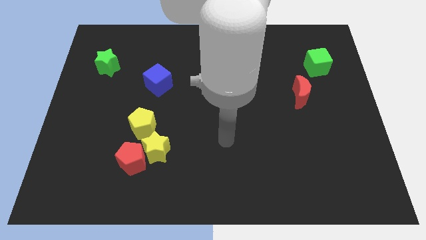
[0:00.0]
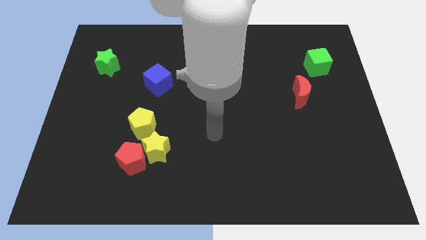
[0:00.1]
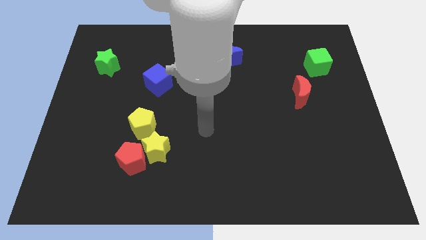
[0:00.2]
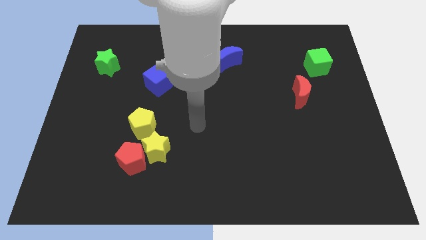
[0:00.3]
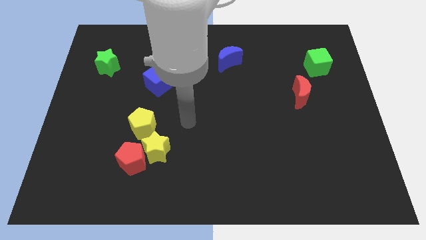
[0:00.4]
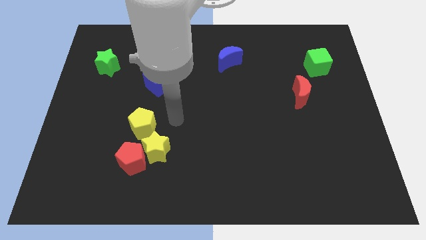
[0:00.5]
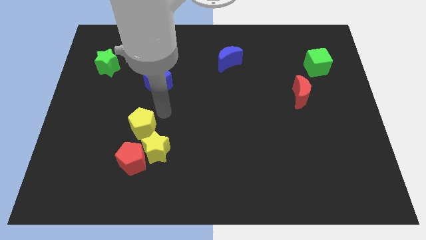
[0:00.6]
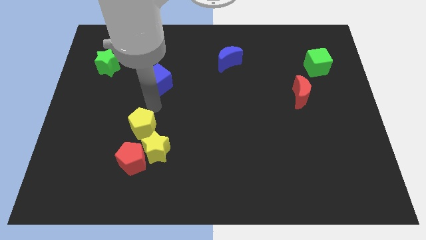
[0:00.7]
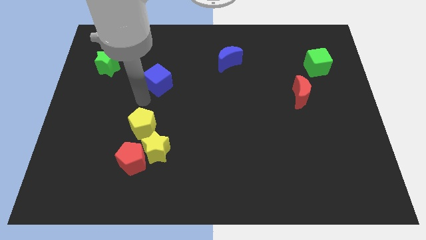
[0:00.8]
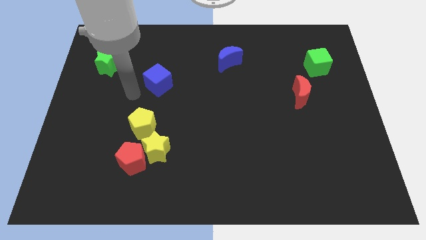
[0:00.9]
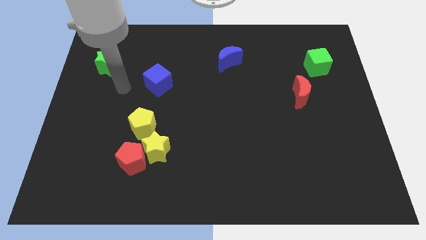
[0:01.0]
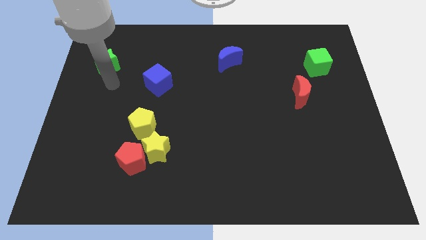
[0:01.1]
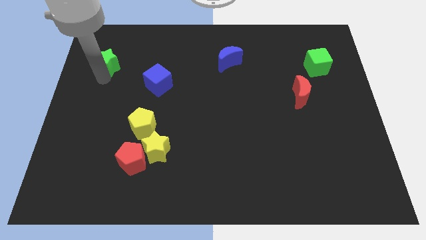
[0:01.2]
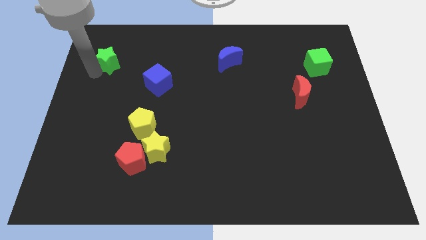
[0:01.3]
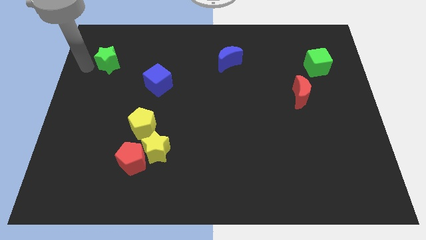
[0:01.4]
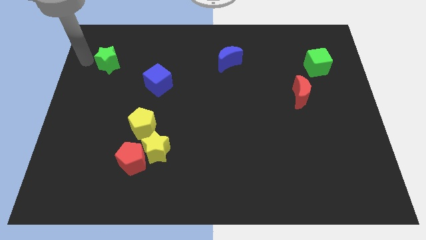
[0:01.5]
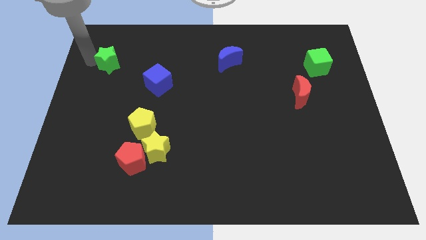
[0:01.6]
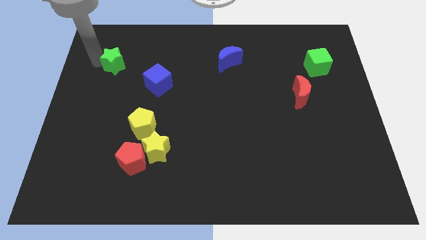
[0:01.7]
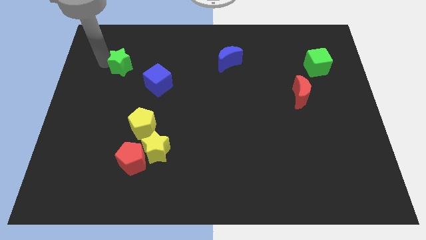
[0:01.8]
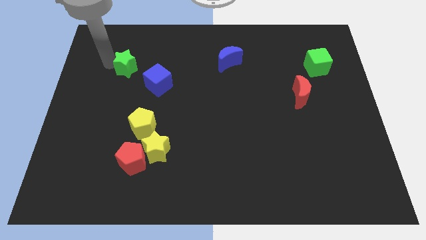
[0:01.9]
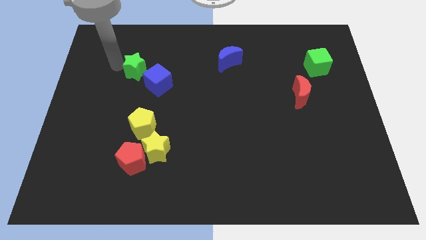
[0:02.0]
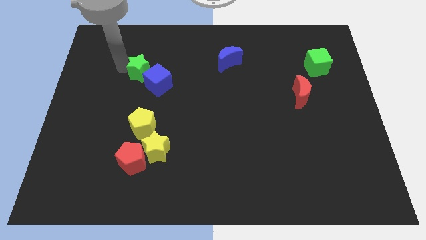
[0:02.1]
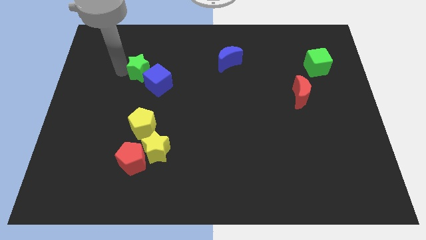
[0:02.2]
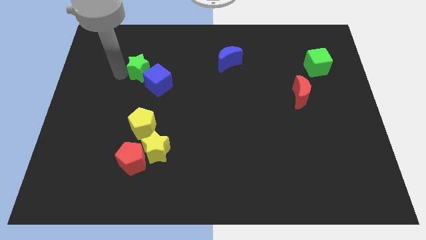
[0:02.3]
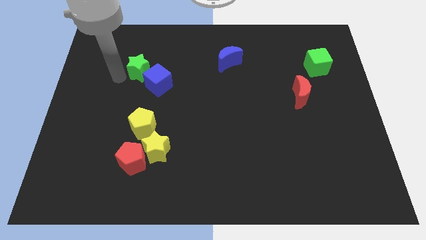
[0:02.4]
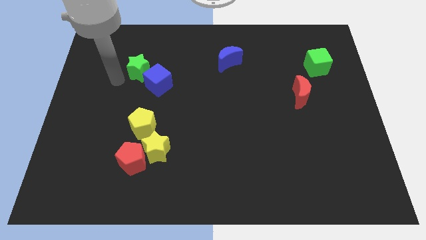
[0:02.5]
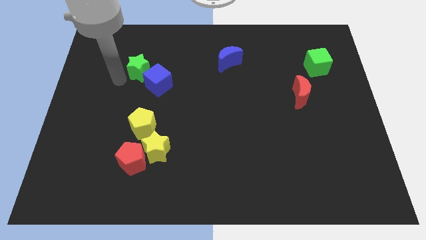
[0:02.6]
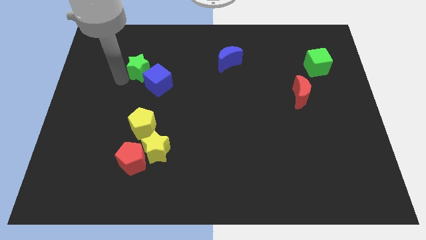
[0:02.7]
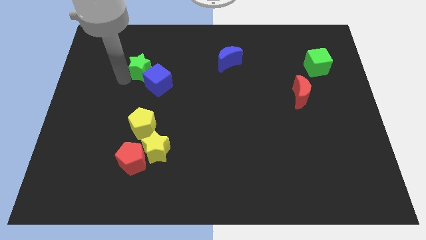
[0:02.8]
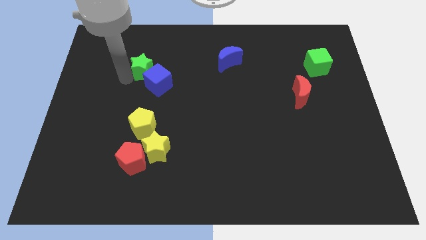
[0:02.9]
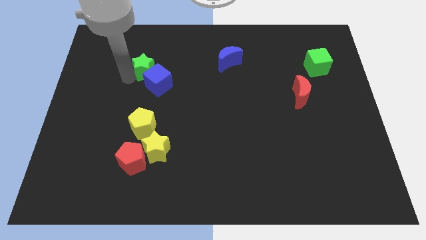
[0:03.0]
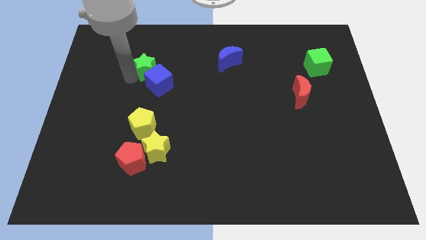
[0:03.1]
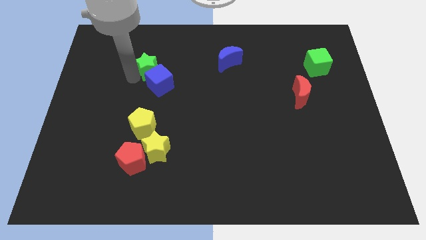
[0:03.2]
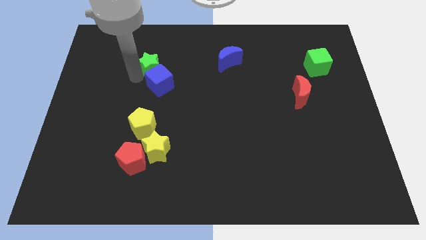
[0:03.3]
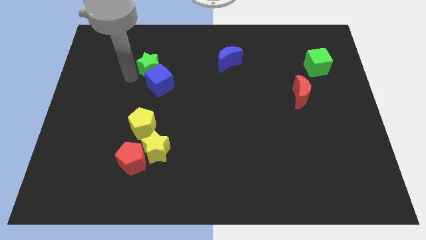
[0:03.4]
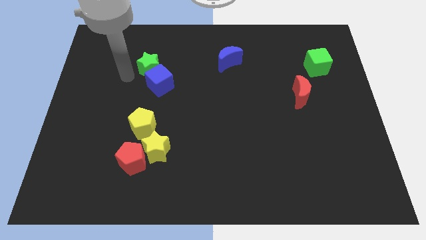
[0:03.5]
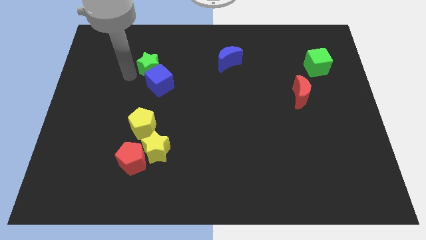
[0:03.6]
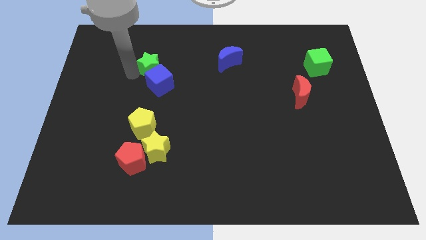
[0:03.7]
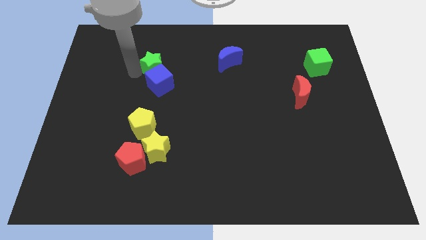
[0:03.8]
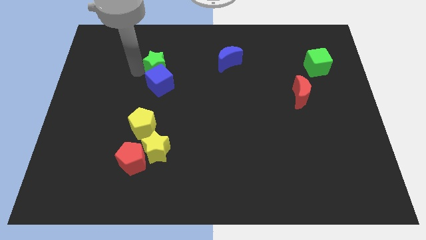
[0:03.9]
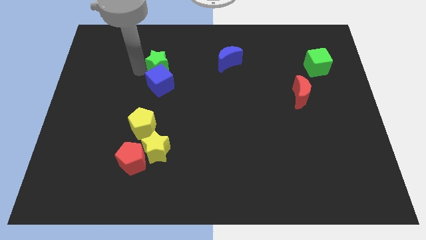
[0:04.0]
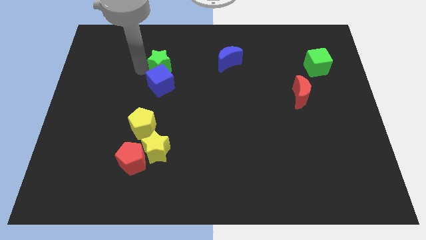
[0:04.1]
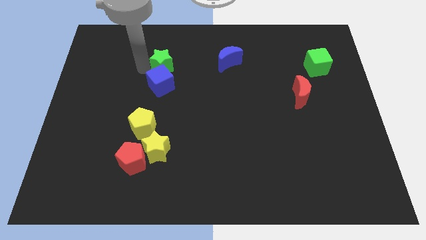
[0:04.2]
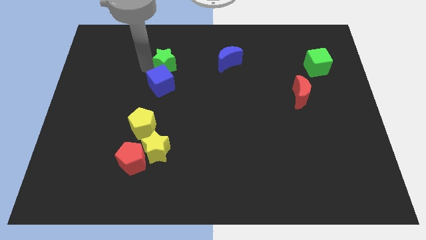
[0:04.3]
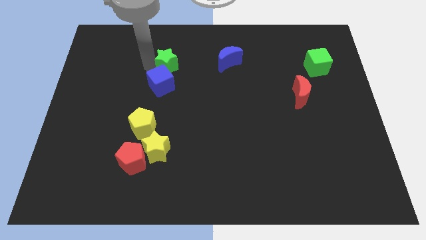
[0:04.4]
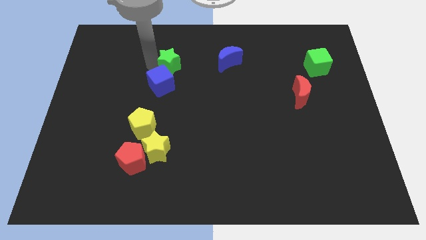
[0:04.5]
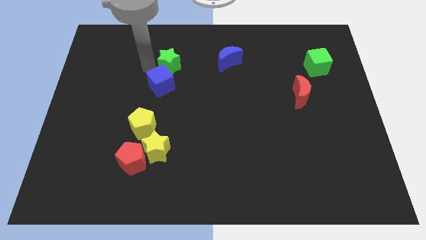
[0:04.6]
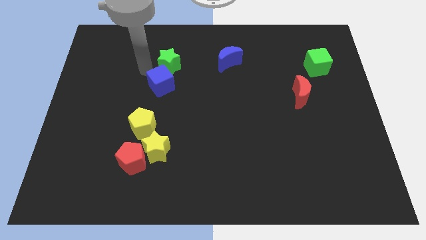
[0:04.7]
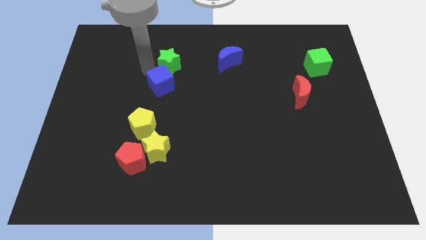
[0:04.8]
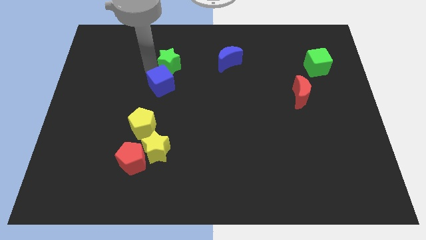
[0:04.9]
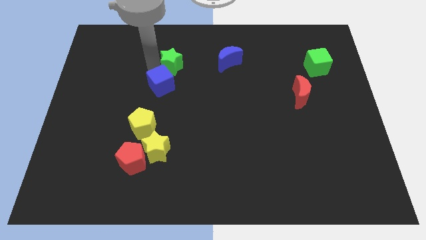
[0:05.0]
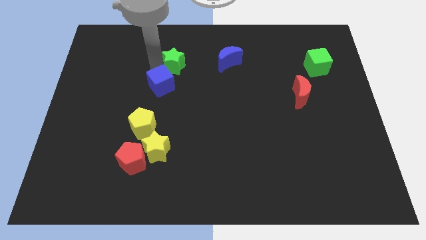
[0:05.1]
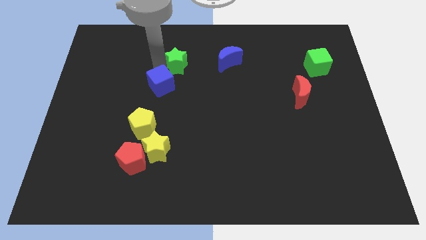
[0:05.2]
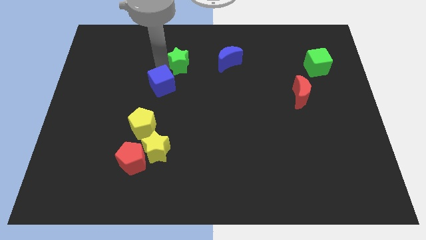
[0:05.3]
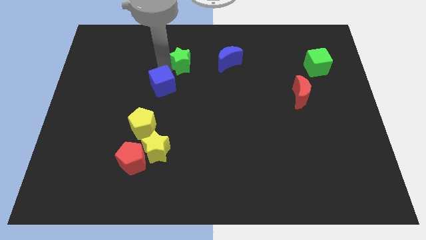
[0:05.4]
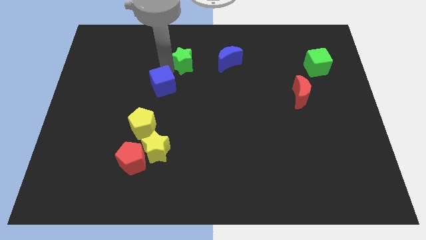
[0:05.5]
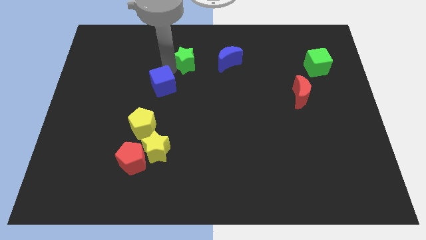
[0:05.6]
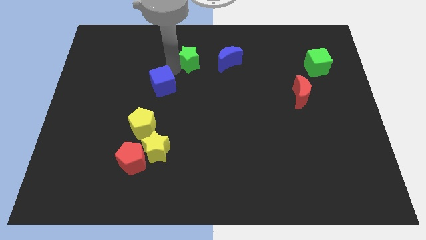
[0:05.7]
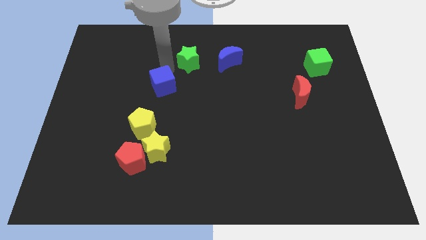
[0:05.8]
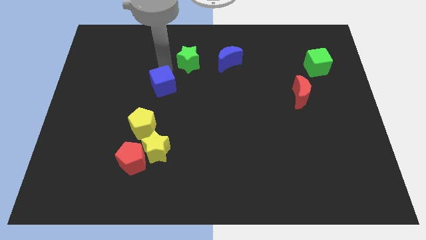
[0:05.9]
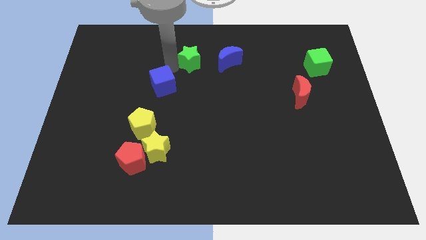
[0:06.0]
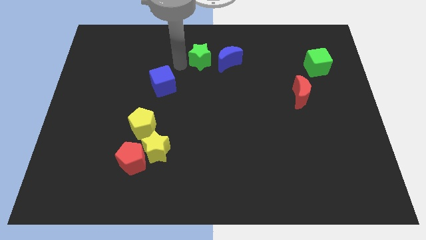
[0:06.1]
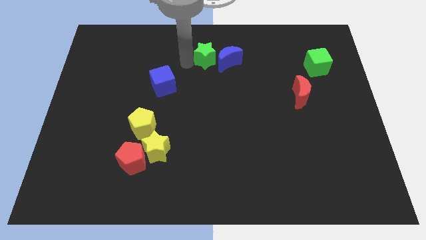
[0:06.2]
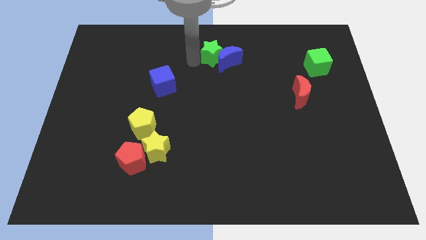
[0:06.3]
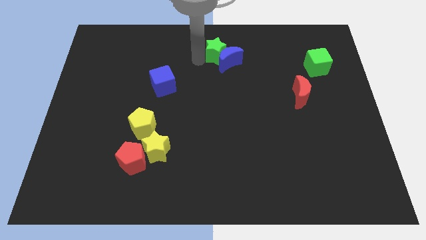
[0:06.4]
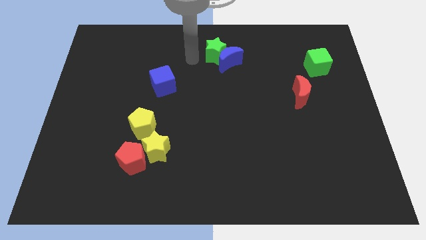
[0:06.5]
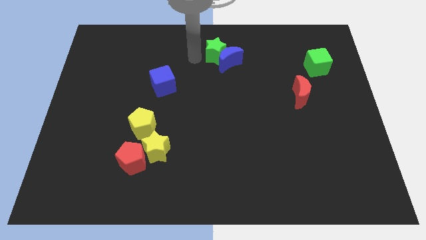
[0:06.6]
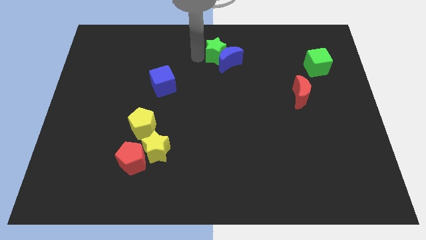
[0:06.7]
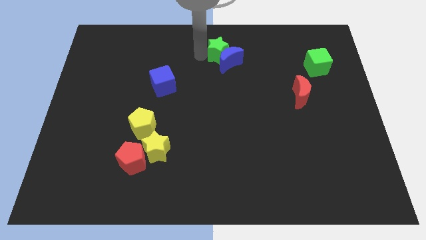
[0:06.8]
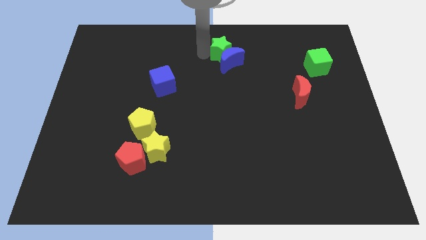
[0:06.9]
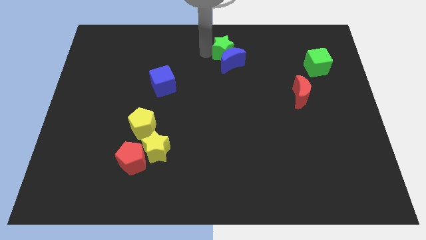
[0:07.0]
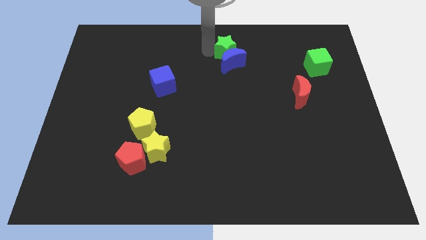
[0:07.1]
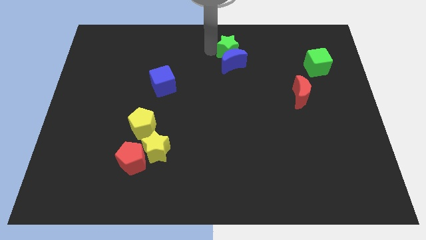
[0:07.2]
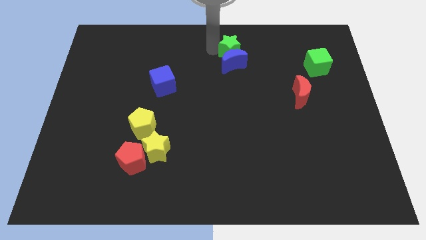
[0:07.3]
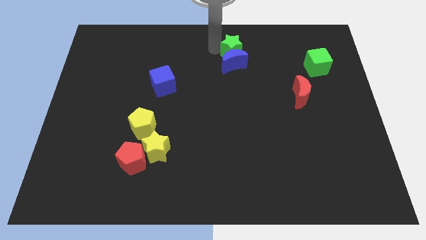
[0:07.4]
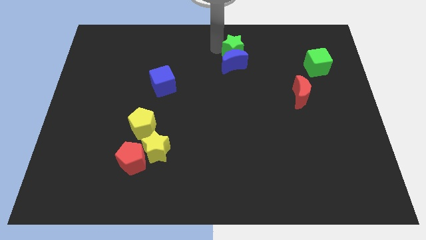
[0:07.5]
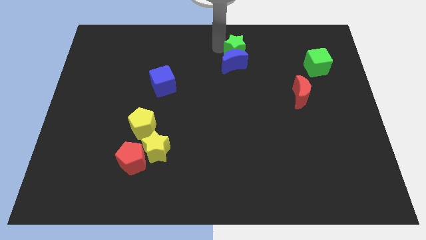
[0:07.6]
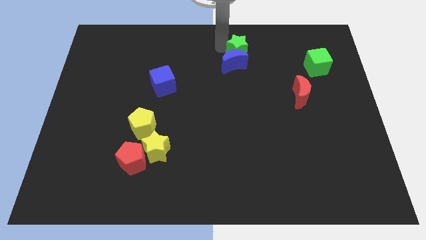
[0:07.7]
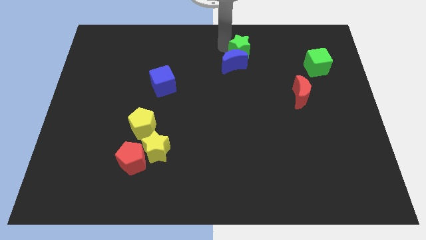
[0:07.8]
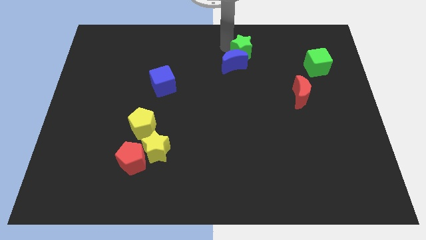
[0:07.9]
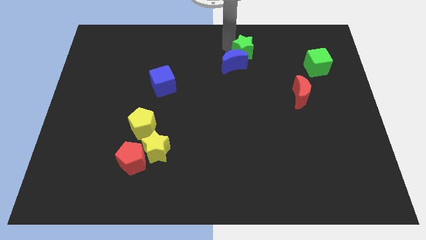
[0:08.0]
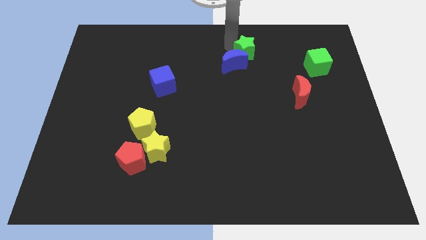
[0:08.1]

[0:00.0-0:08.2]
push the green star right of the blue moon
